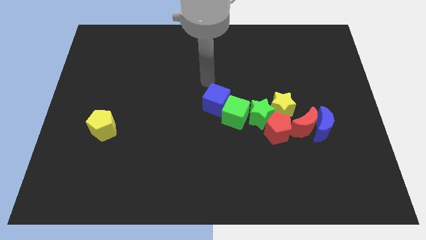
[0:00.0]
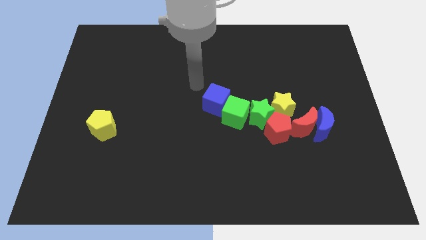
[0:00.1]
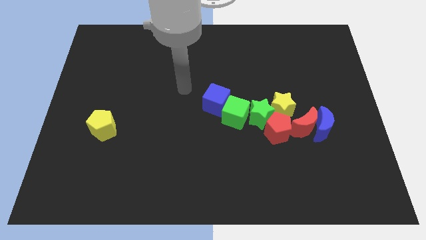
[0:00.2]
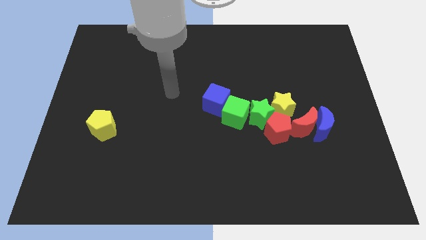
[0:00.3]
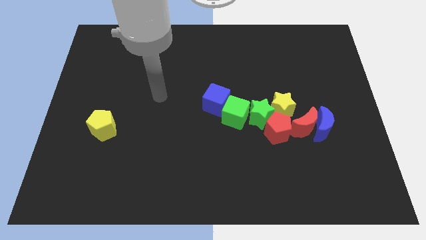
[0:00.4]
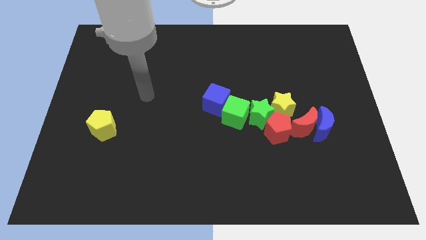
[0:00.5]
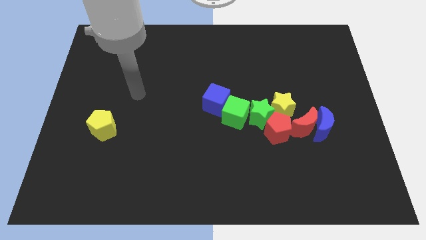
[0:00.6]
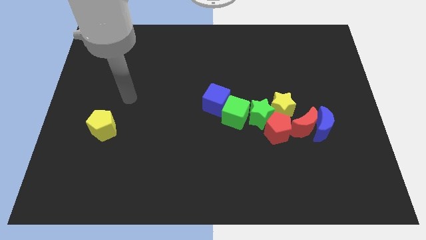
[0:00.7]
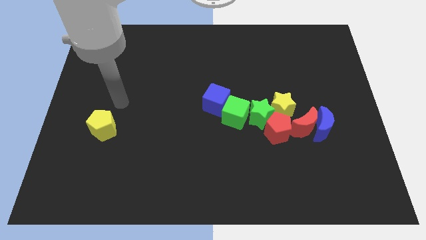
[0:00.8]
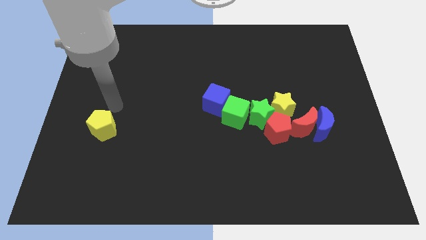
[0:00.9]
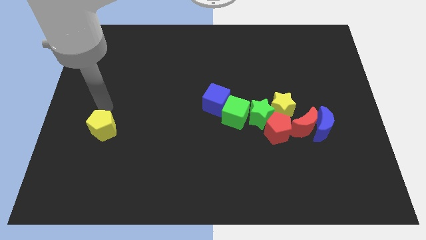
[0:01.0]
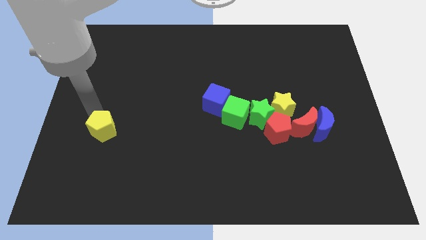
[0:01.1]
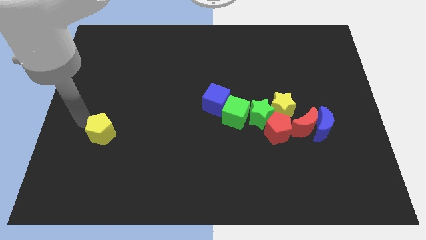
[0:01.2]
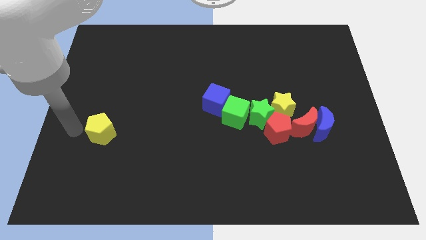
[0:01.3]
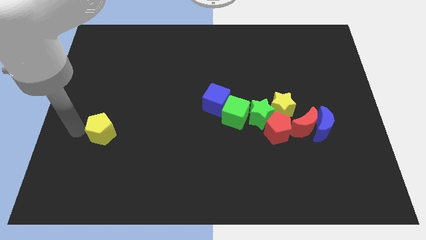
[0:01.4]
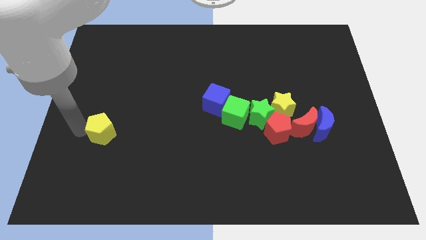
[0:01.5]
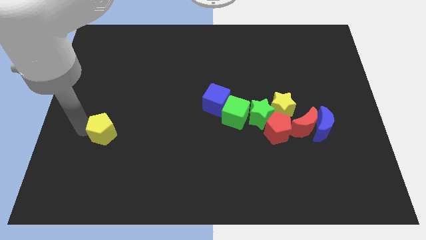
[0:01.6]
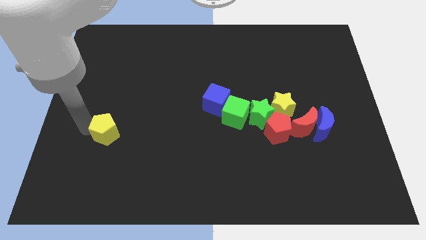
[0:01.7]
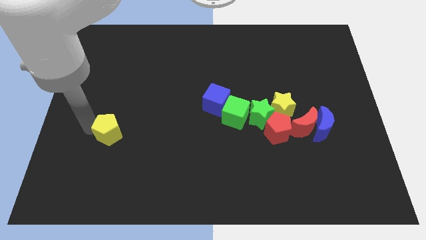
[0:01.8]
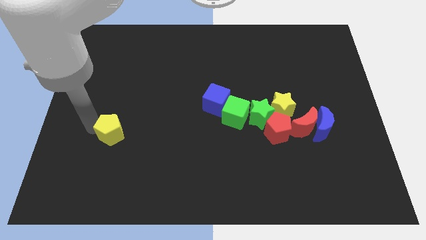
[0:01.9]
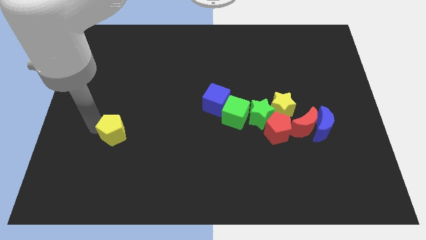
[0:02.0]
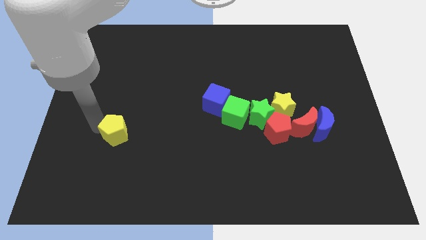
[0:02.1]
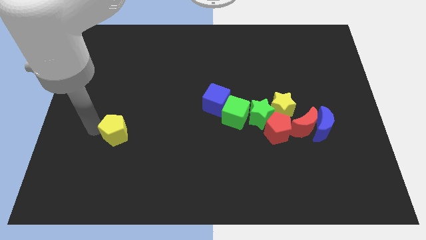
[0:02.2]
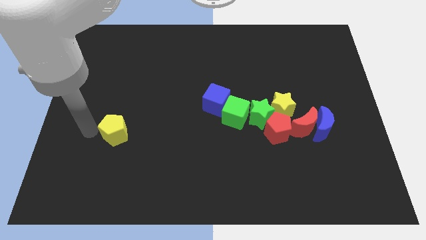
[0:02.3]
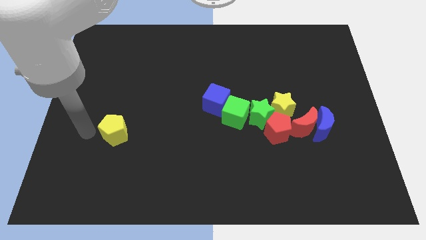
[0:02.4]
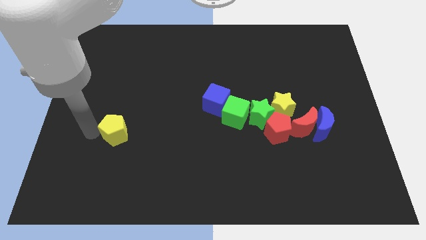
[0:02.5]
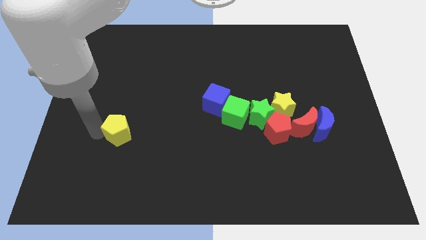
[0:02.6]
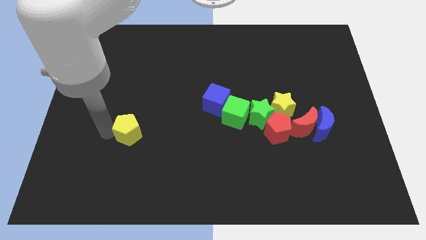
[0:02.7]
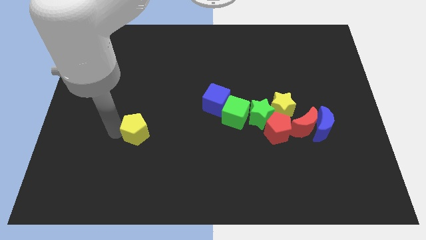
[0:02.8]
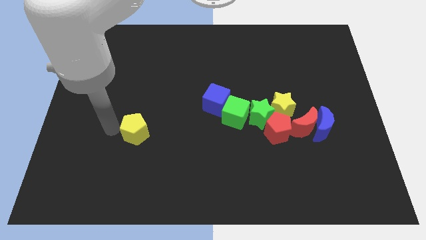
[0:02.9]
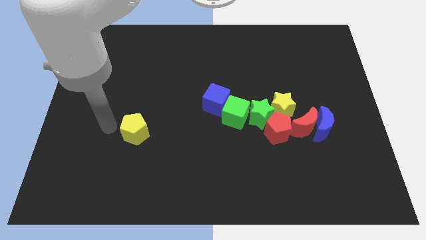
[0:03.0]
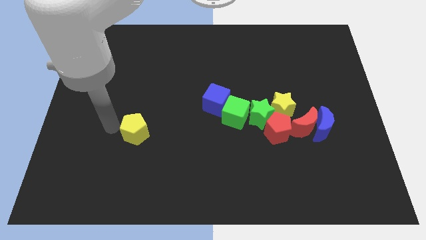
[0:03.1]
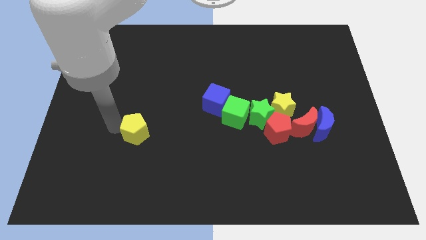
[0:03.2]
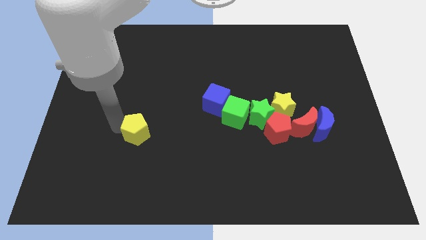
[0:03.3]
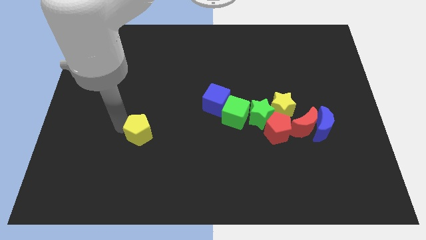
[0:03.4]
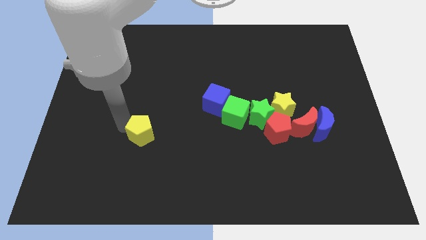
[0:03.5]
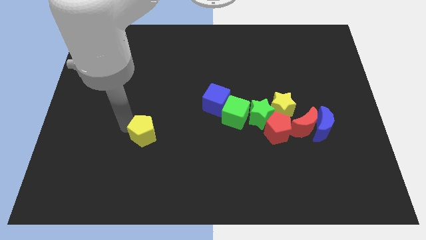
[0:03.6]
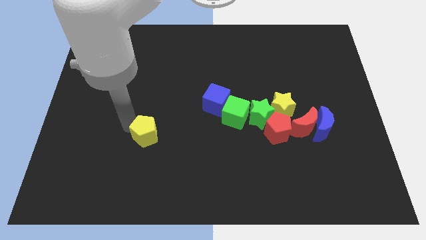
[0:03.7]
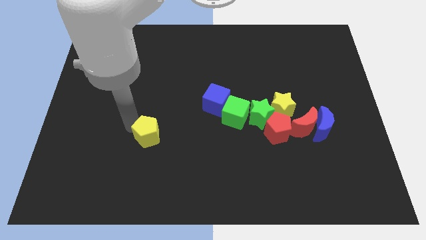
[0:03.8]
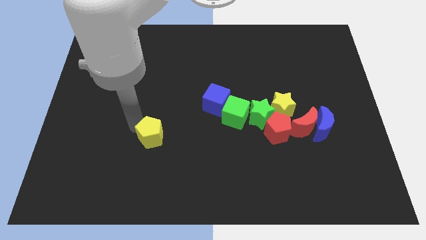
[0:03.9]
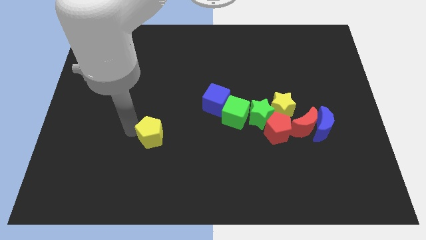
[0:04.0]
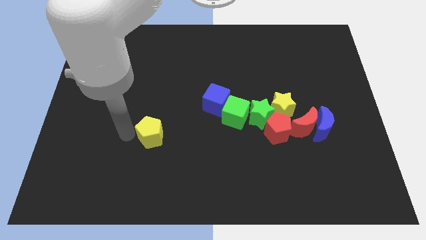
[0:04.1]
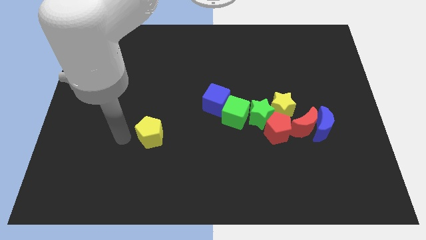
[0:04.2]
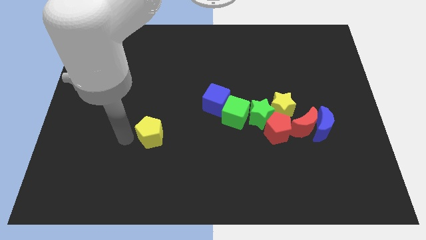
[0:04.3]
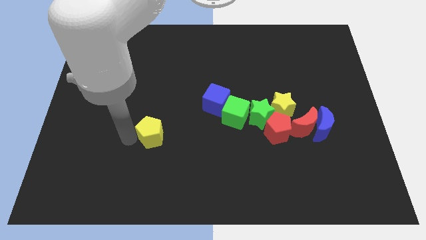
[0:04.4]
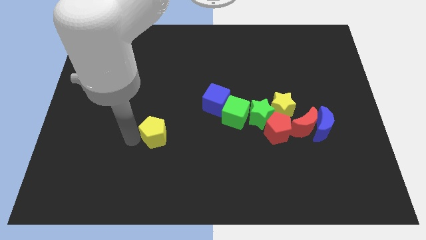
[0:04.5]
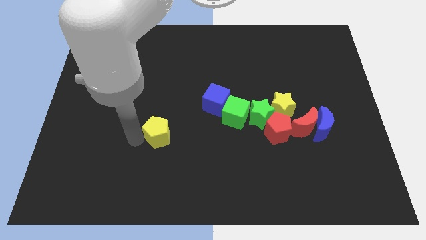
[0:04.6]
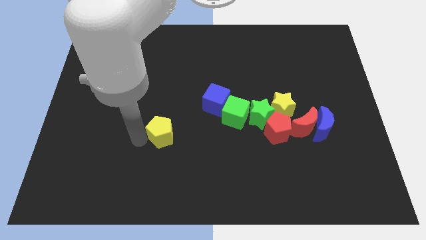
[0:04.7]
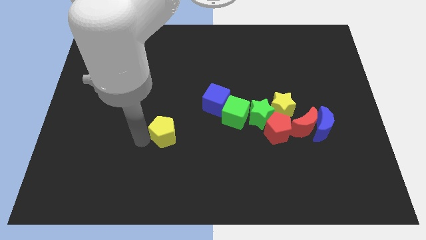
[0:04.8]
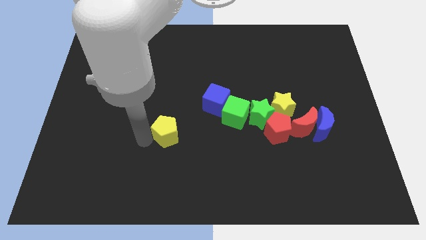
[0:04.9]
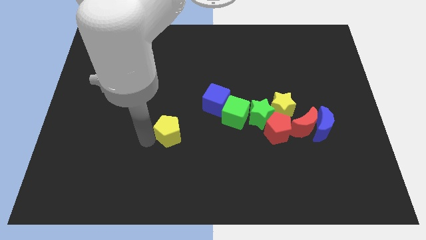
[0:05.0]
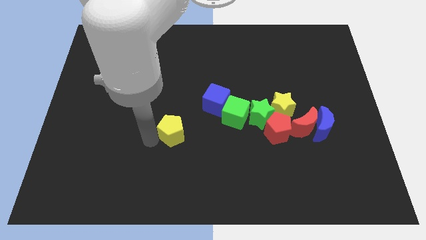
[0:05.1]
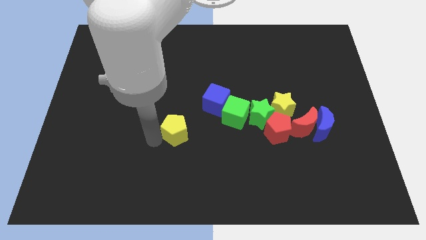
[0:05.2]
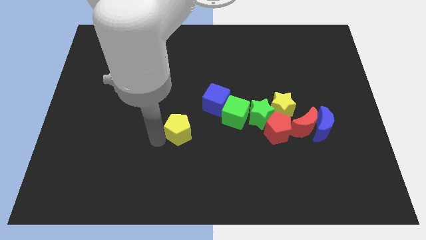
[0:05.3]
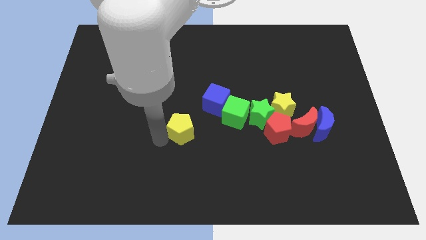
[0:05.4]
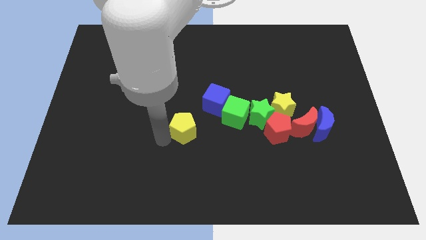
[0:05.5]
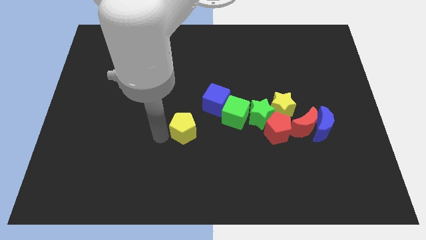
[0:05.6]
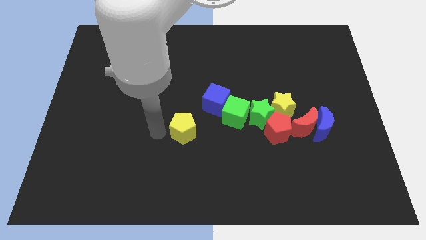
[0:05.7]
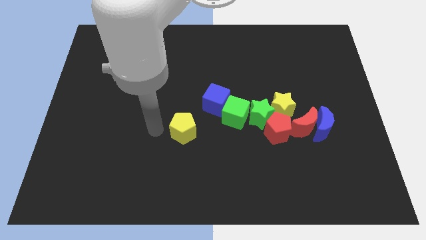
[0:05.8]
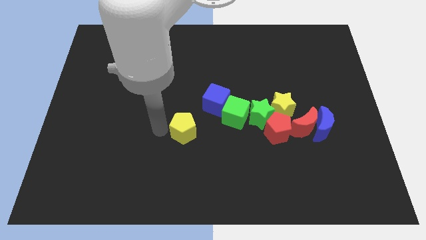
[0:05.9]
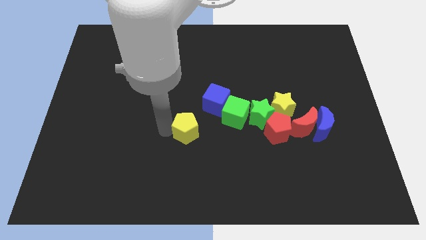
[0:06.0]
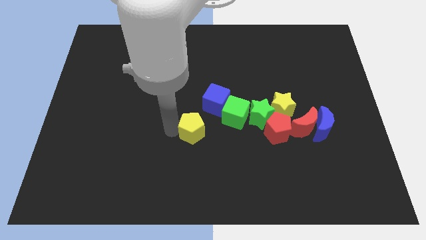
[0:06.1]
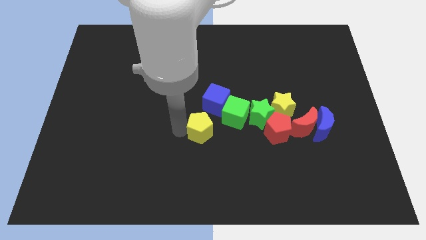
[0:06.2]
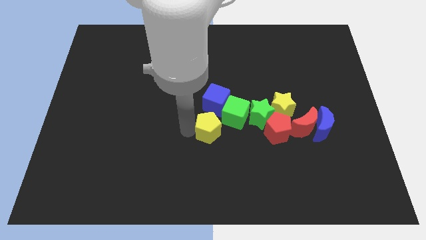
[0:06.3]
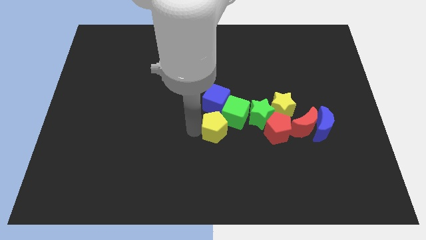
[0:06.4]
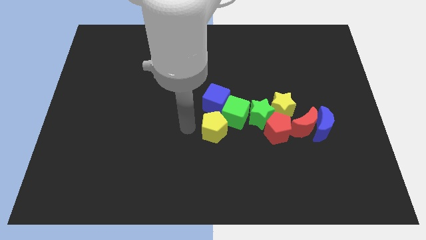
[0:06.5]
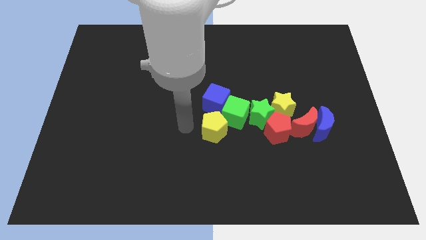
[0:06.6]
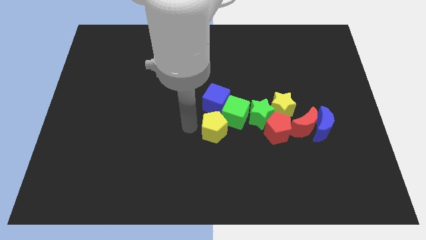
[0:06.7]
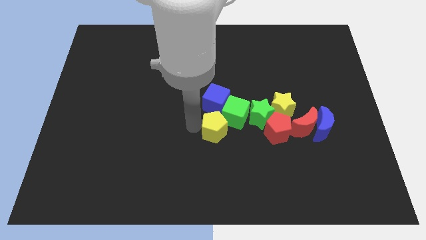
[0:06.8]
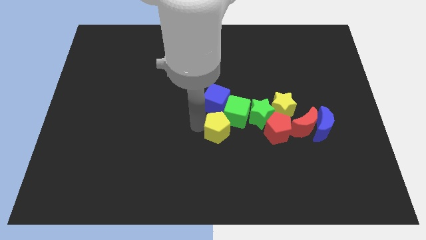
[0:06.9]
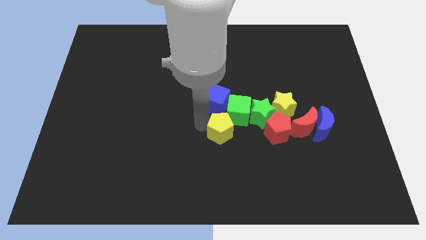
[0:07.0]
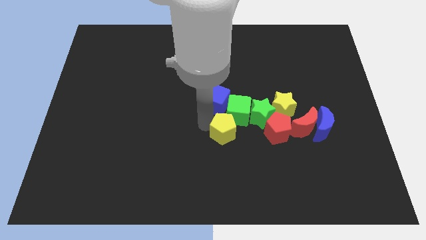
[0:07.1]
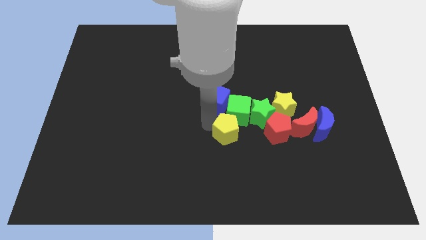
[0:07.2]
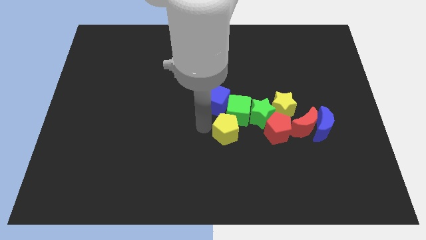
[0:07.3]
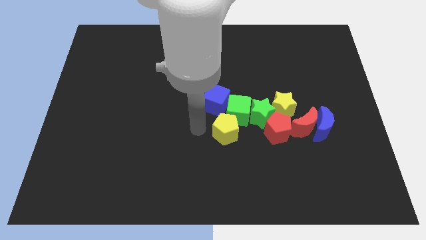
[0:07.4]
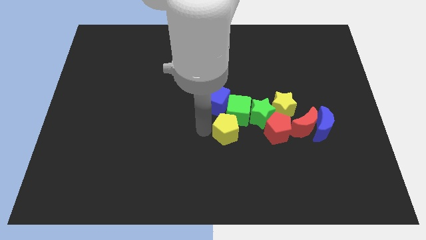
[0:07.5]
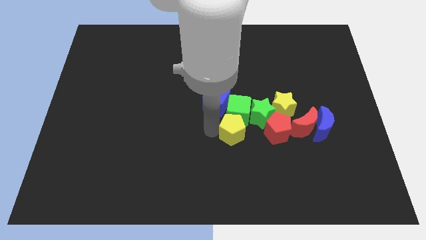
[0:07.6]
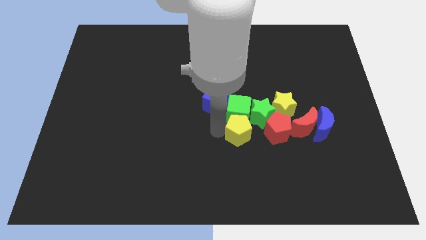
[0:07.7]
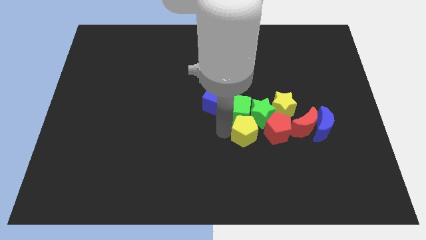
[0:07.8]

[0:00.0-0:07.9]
slide the yellow pentagon next to the green star
